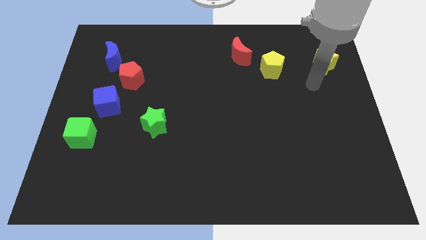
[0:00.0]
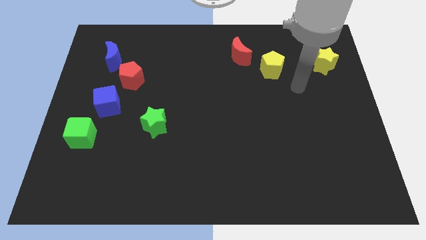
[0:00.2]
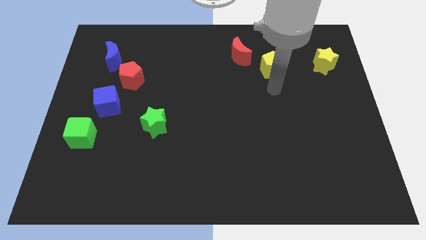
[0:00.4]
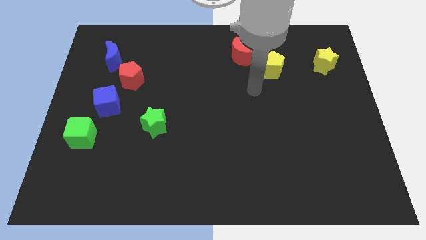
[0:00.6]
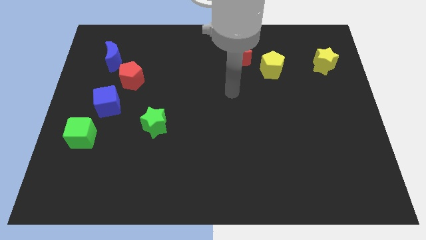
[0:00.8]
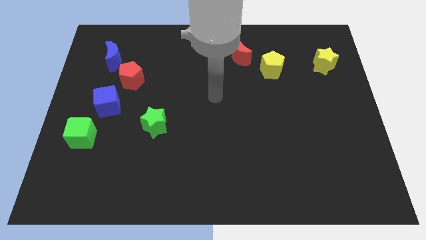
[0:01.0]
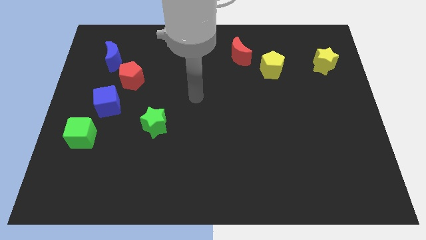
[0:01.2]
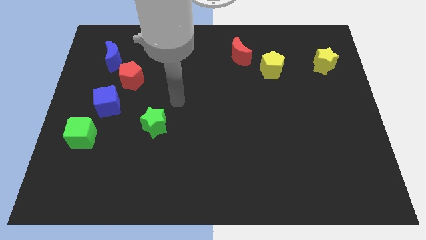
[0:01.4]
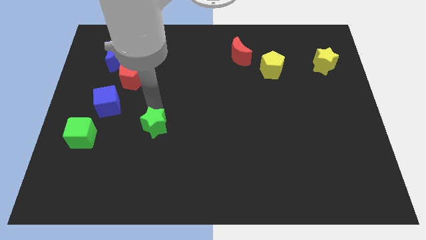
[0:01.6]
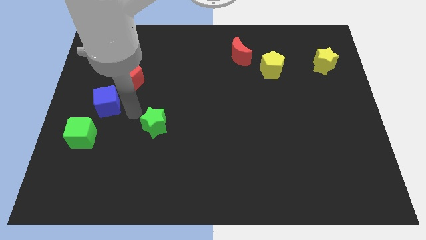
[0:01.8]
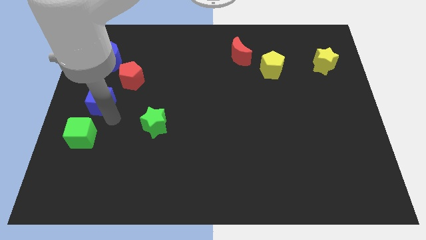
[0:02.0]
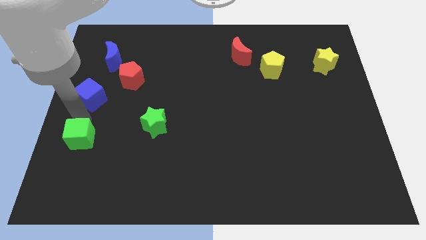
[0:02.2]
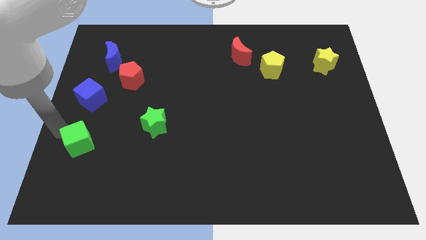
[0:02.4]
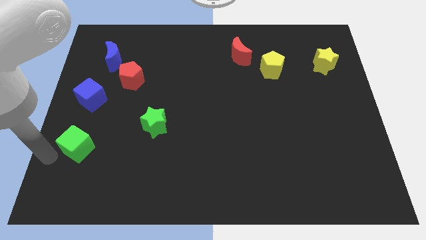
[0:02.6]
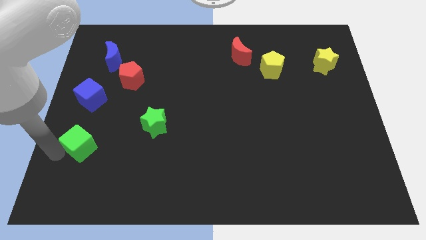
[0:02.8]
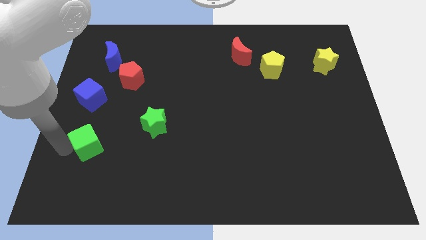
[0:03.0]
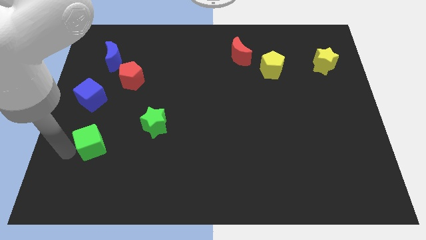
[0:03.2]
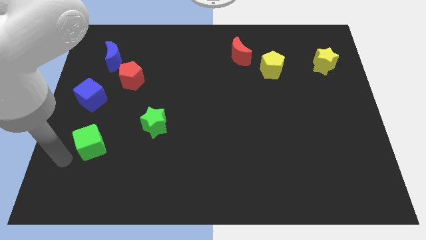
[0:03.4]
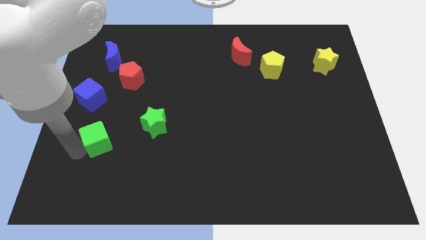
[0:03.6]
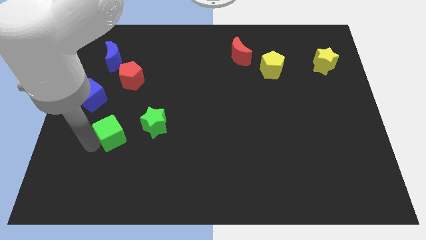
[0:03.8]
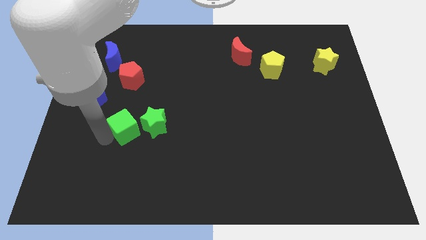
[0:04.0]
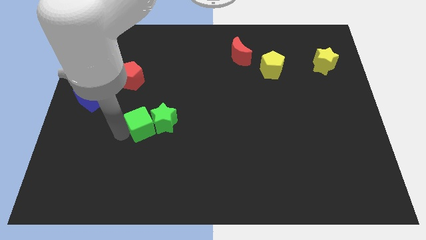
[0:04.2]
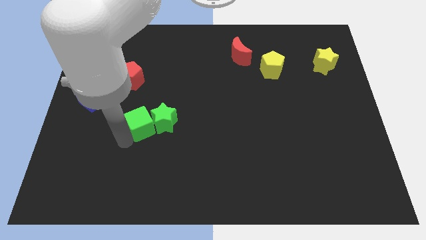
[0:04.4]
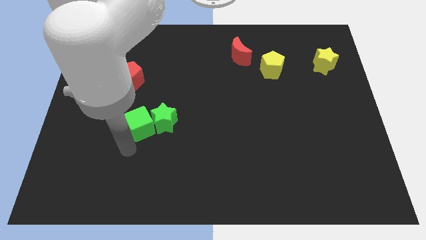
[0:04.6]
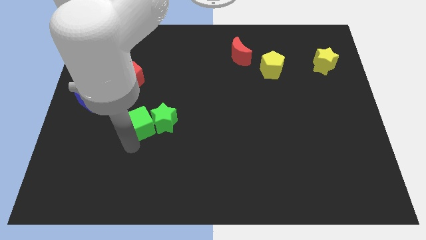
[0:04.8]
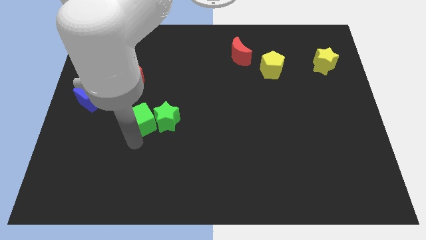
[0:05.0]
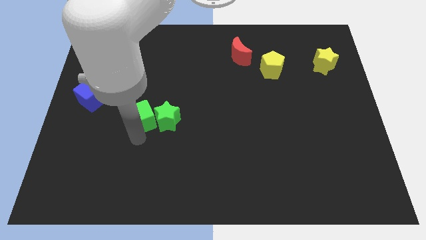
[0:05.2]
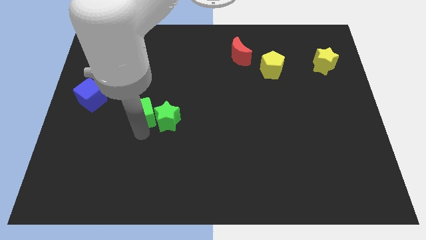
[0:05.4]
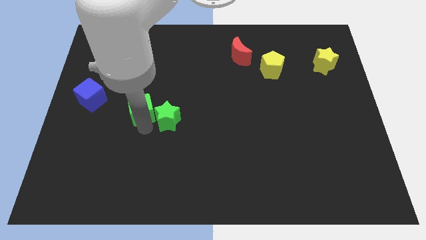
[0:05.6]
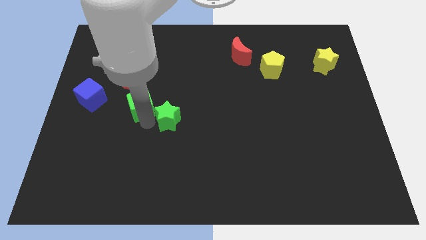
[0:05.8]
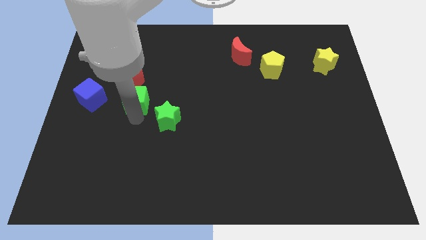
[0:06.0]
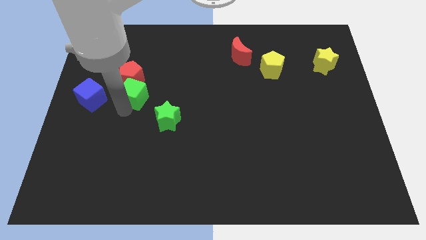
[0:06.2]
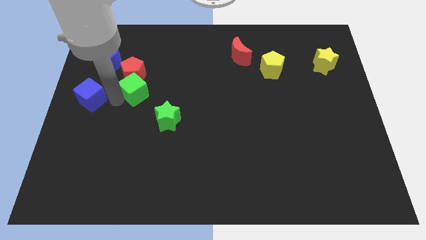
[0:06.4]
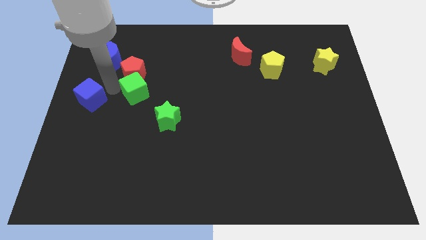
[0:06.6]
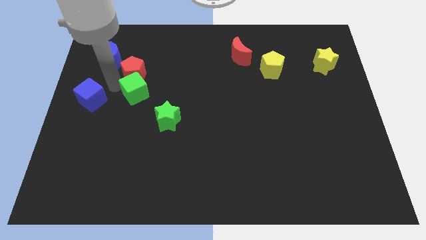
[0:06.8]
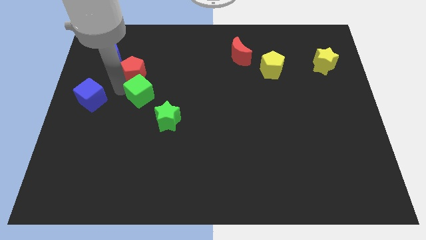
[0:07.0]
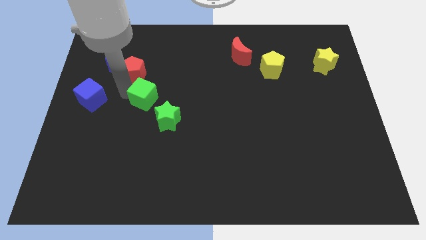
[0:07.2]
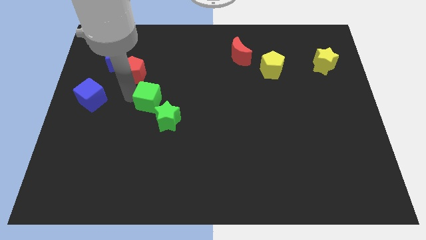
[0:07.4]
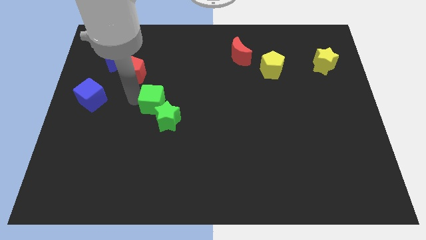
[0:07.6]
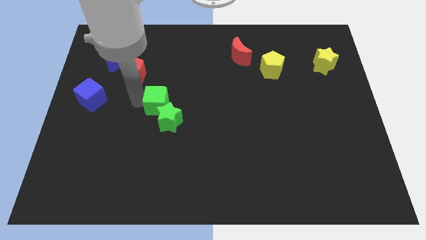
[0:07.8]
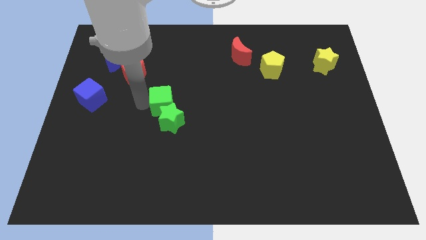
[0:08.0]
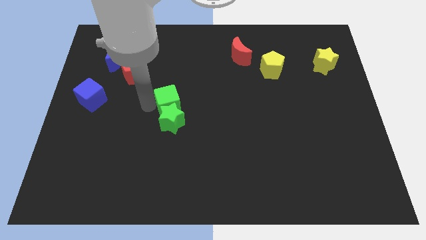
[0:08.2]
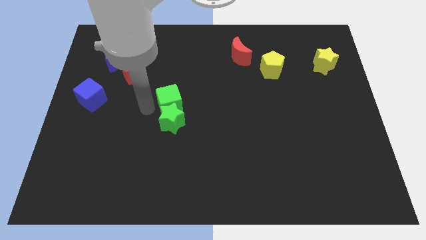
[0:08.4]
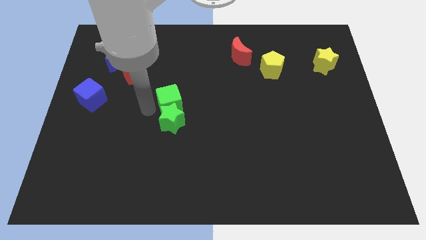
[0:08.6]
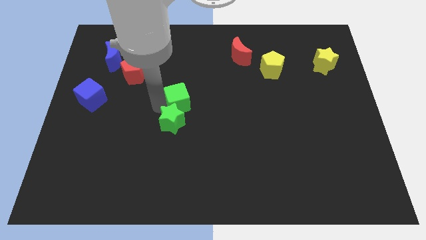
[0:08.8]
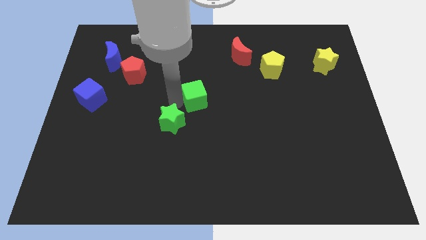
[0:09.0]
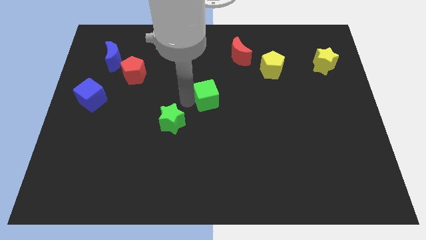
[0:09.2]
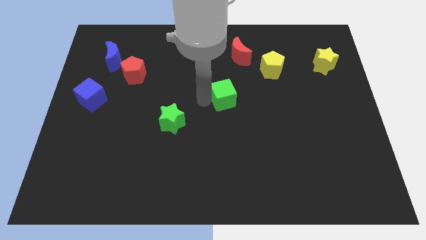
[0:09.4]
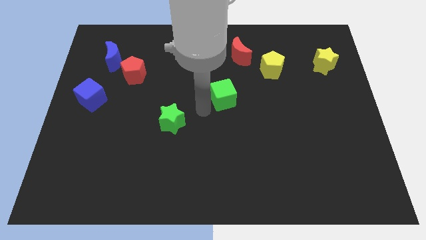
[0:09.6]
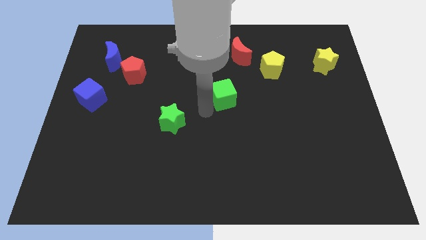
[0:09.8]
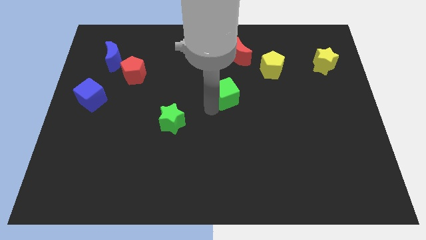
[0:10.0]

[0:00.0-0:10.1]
move the green cube below the red moon

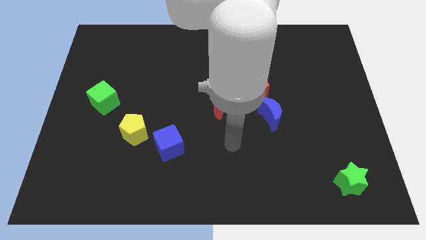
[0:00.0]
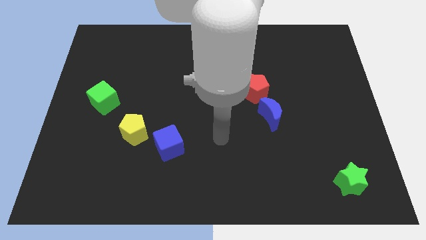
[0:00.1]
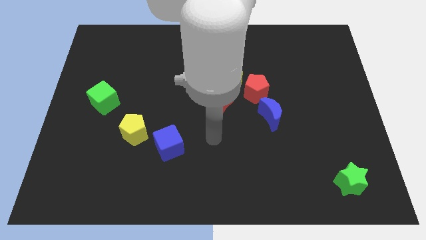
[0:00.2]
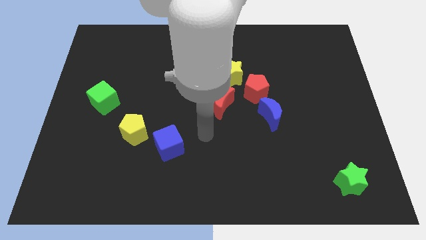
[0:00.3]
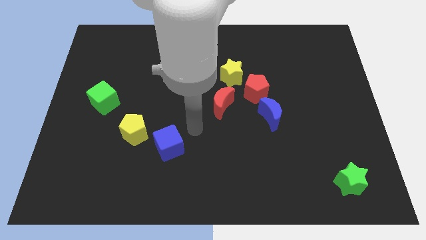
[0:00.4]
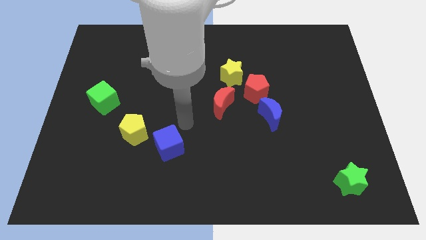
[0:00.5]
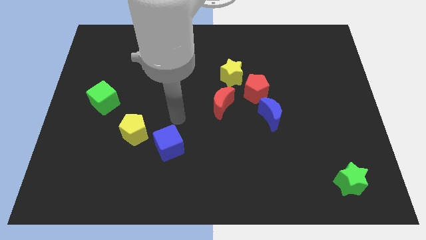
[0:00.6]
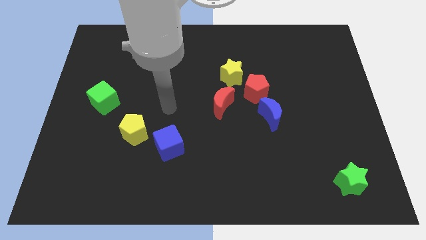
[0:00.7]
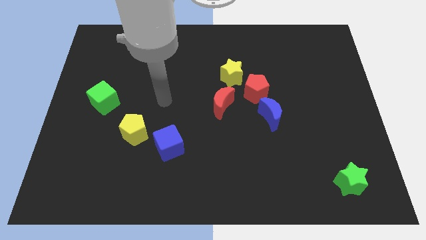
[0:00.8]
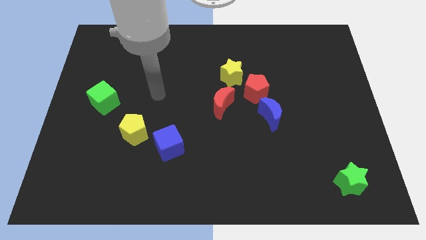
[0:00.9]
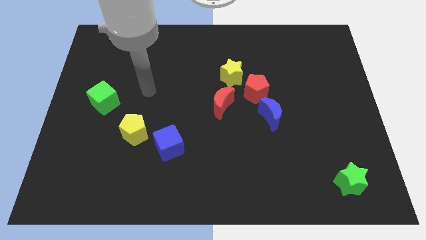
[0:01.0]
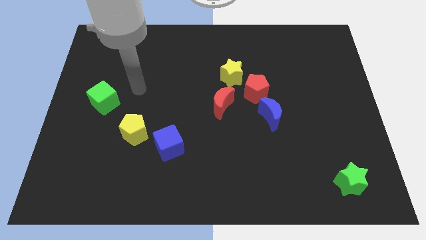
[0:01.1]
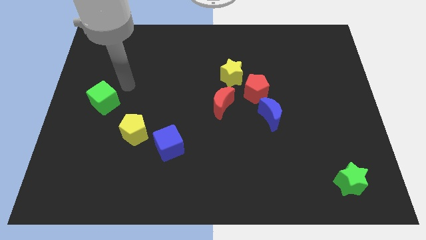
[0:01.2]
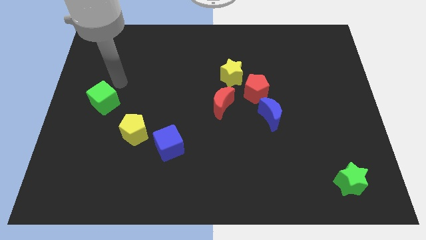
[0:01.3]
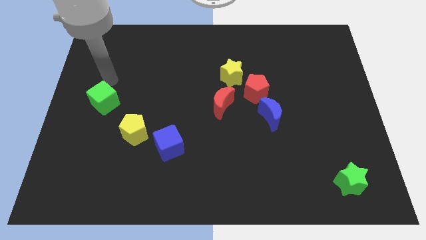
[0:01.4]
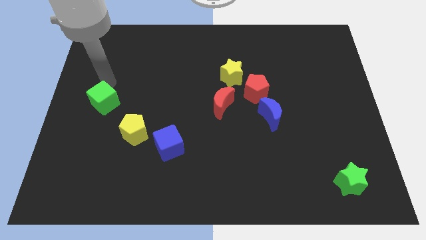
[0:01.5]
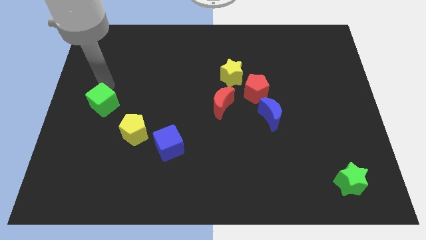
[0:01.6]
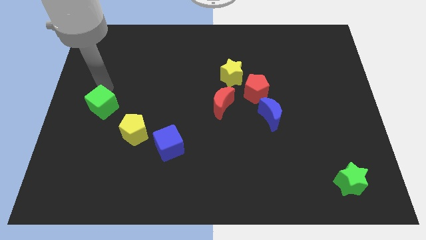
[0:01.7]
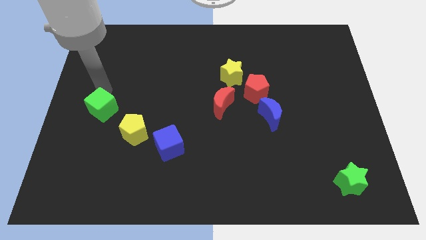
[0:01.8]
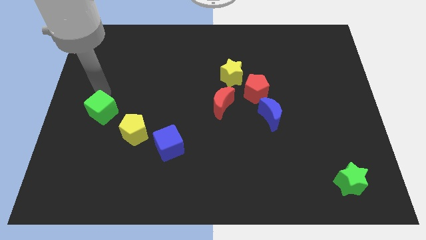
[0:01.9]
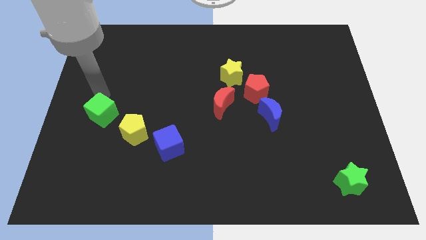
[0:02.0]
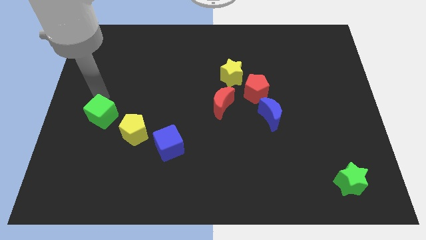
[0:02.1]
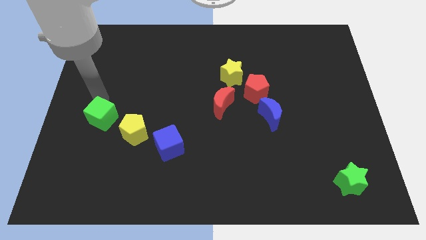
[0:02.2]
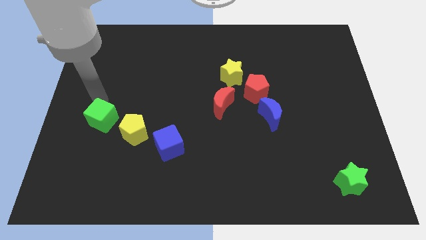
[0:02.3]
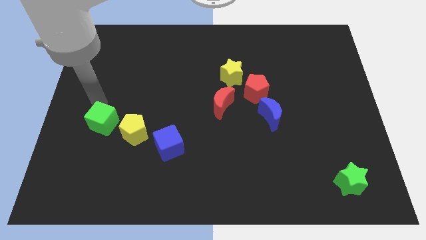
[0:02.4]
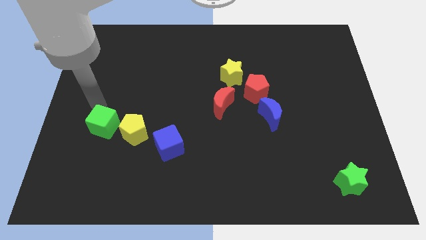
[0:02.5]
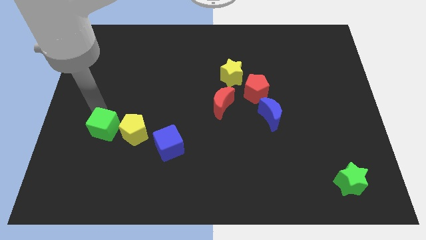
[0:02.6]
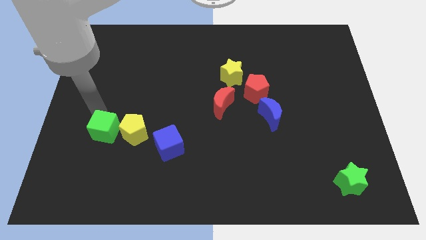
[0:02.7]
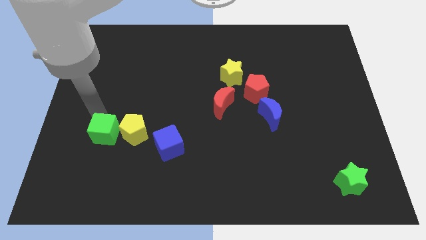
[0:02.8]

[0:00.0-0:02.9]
move the green cube diagonally down and to the left of the yellow pentagon
